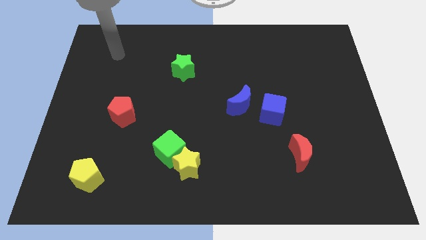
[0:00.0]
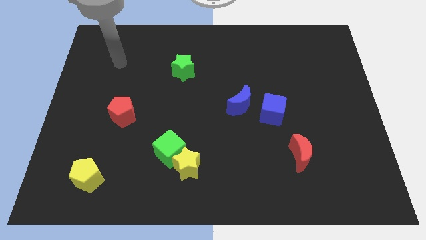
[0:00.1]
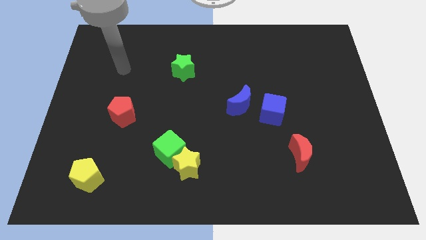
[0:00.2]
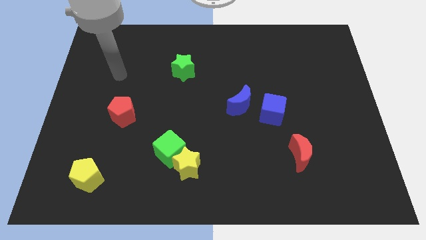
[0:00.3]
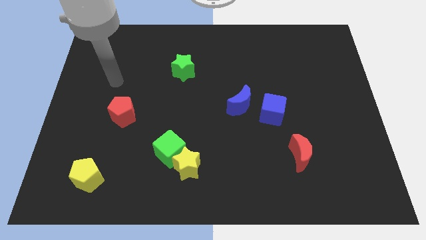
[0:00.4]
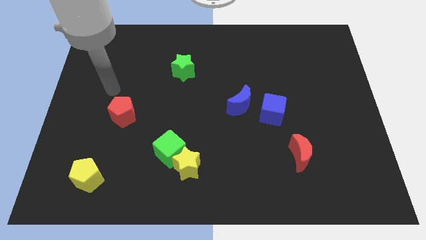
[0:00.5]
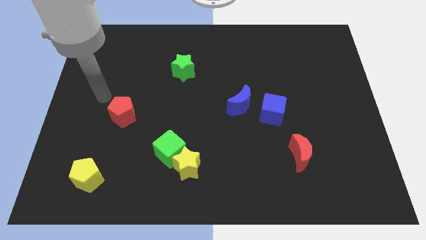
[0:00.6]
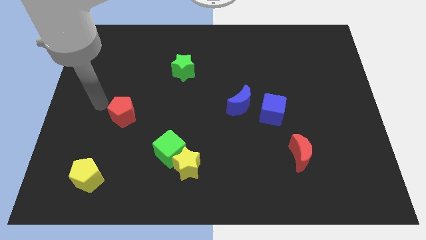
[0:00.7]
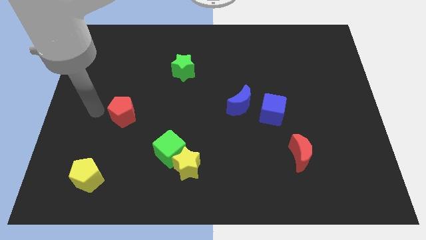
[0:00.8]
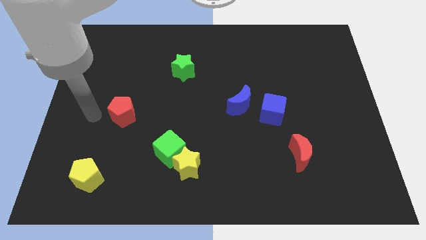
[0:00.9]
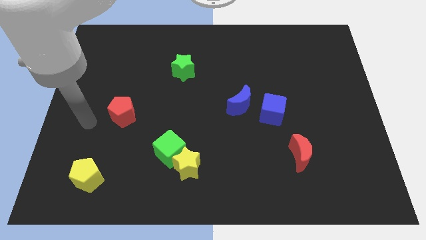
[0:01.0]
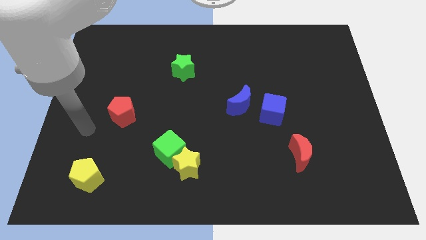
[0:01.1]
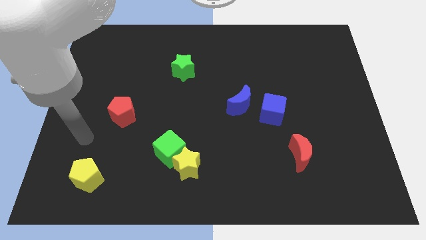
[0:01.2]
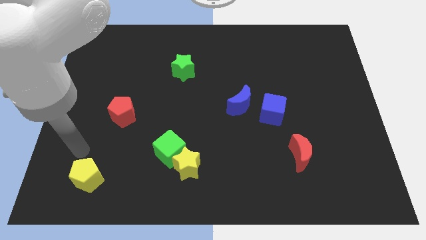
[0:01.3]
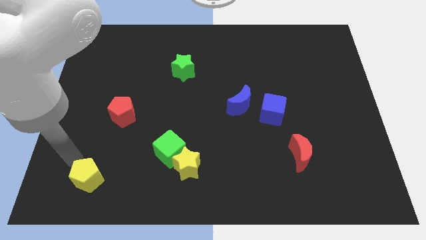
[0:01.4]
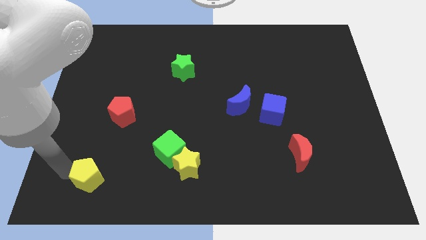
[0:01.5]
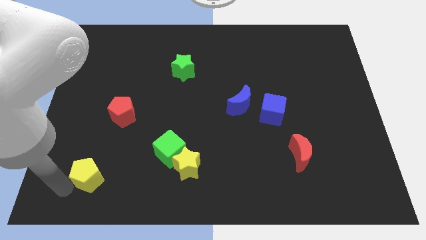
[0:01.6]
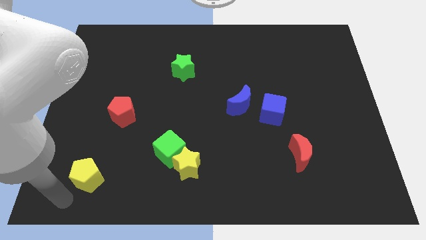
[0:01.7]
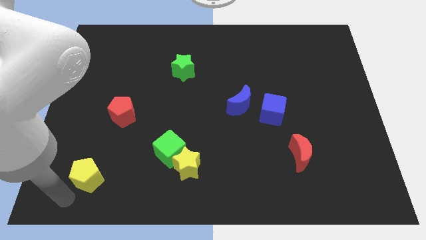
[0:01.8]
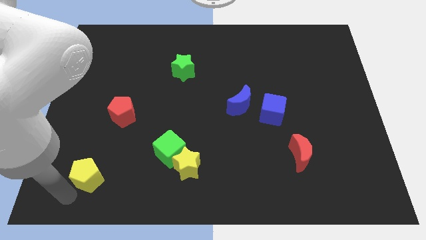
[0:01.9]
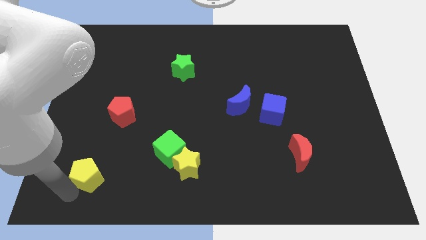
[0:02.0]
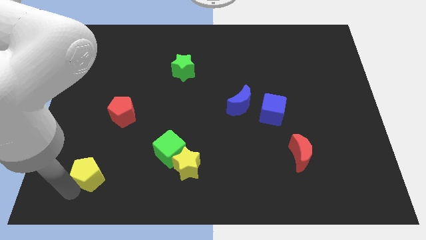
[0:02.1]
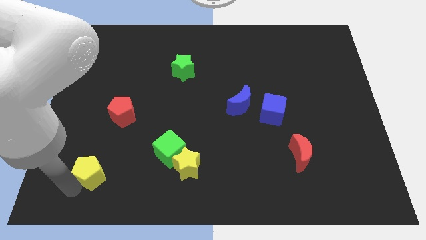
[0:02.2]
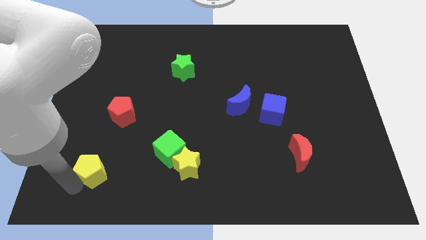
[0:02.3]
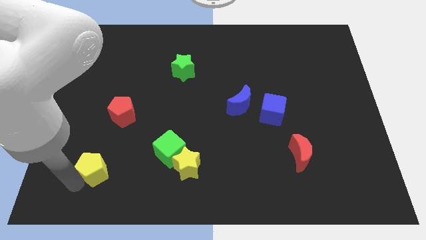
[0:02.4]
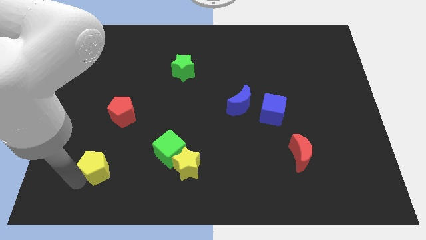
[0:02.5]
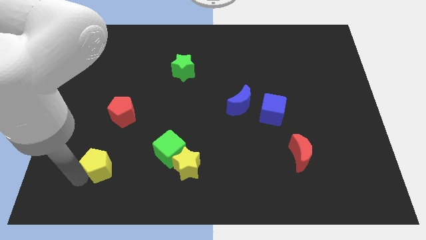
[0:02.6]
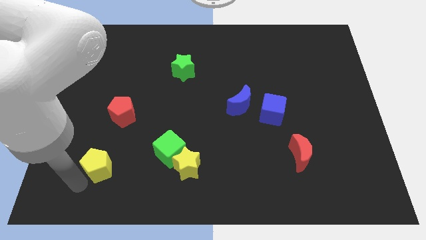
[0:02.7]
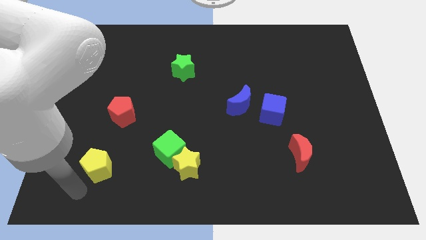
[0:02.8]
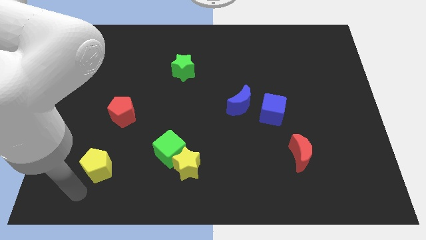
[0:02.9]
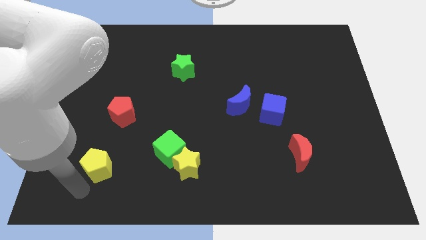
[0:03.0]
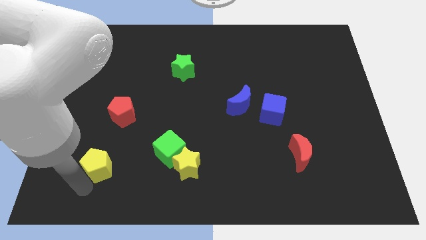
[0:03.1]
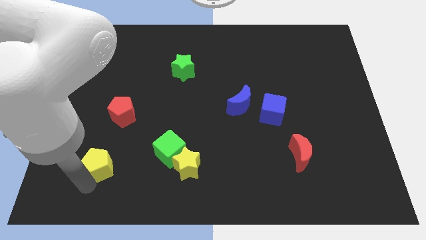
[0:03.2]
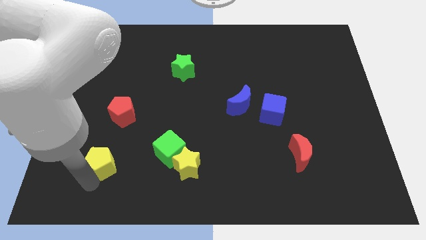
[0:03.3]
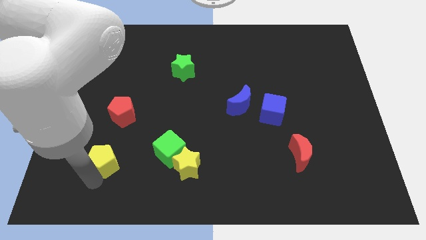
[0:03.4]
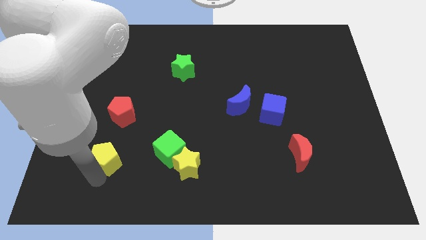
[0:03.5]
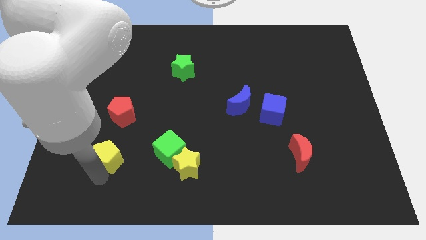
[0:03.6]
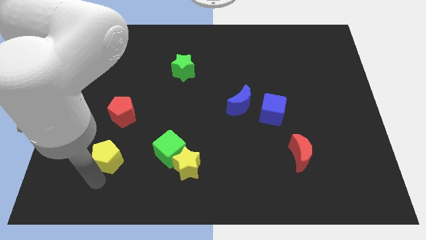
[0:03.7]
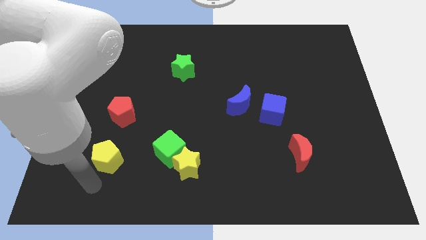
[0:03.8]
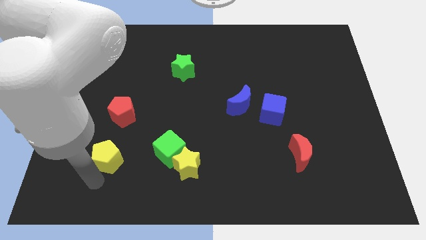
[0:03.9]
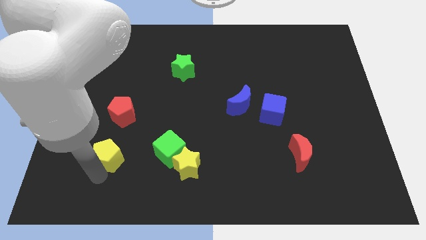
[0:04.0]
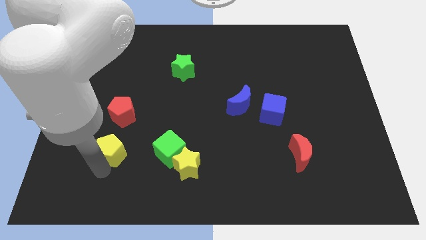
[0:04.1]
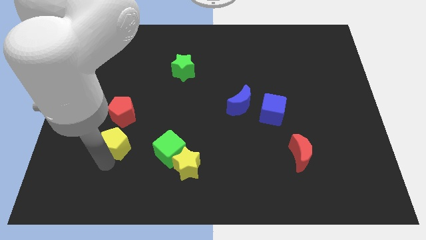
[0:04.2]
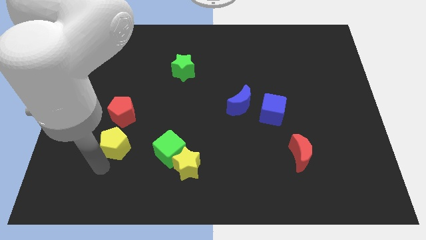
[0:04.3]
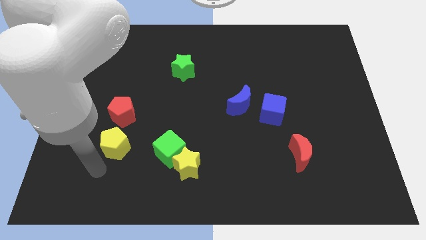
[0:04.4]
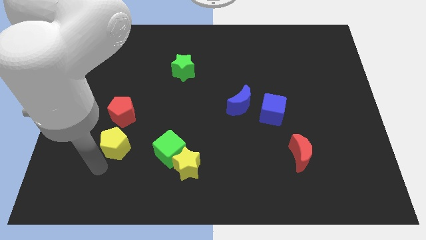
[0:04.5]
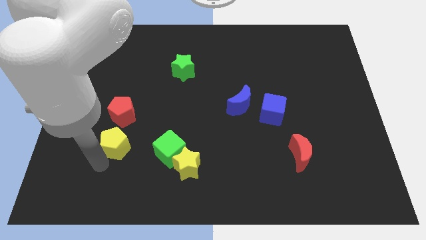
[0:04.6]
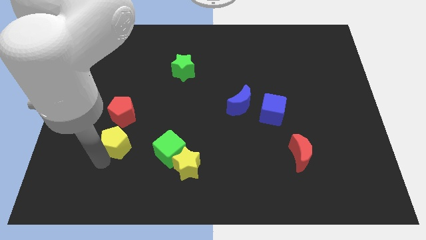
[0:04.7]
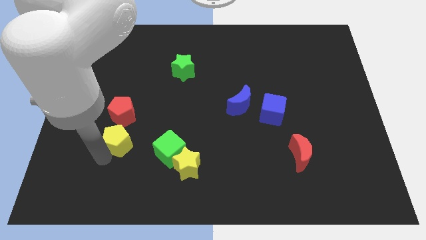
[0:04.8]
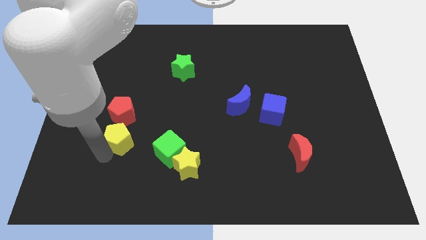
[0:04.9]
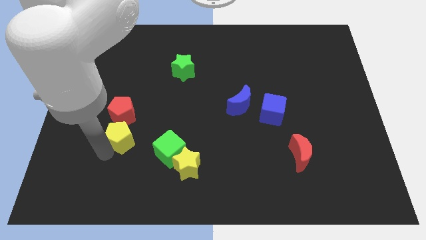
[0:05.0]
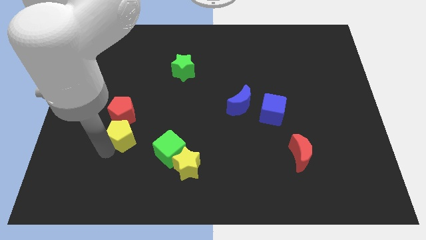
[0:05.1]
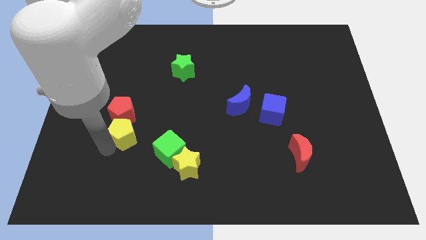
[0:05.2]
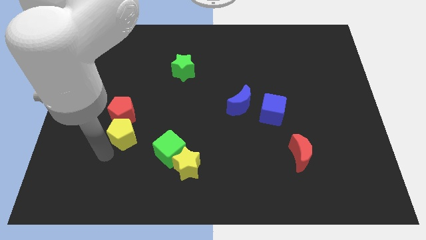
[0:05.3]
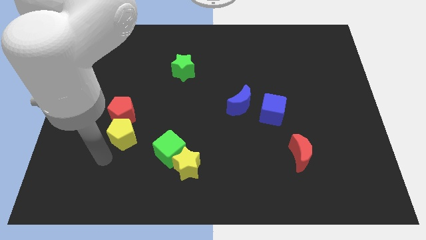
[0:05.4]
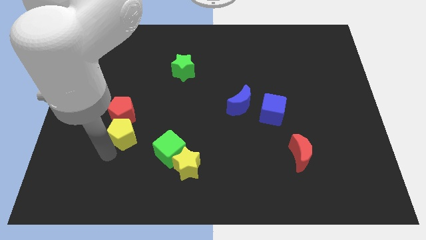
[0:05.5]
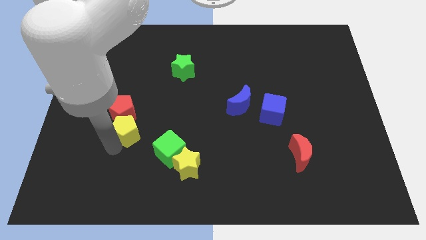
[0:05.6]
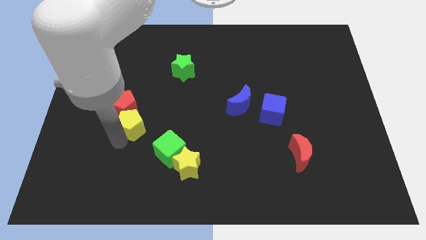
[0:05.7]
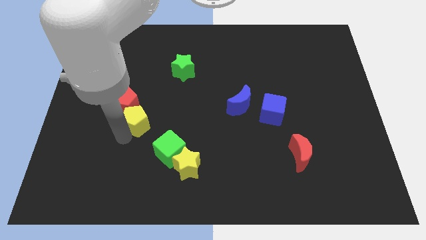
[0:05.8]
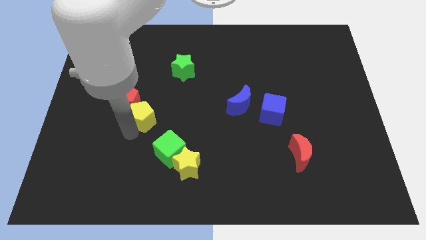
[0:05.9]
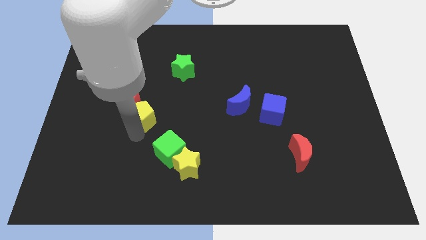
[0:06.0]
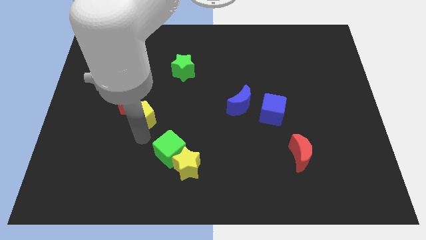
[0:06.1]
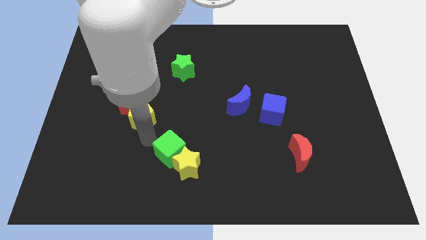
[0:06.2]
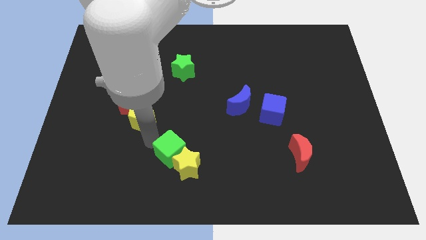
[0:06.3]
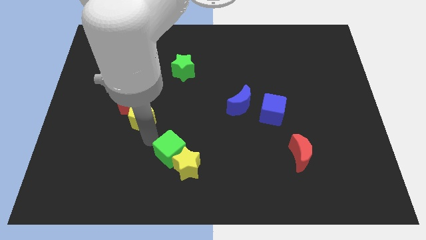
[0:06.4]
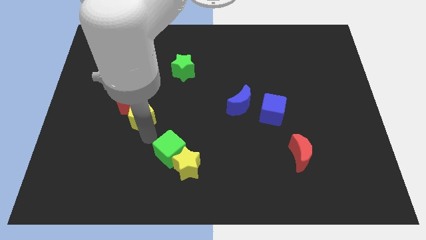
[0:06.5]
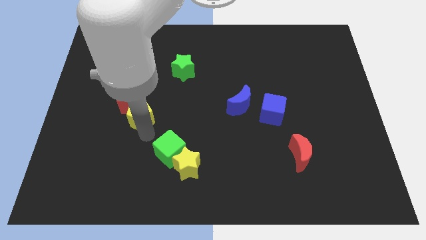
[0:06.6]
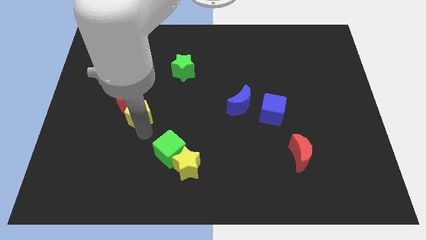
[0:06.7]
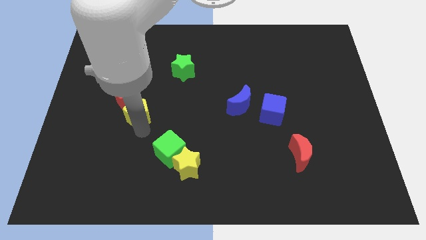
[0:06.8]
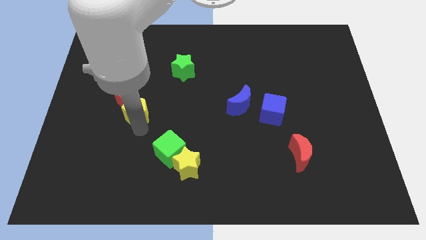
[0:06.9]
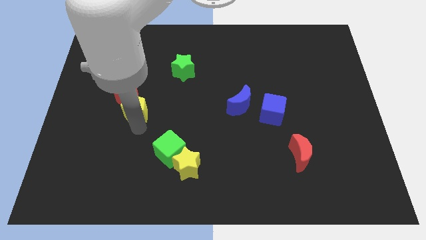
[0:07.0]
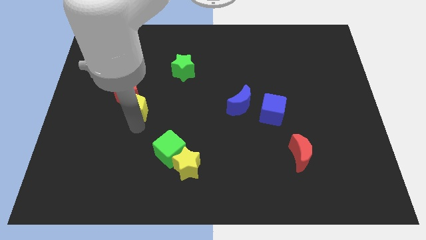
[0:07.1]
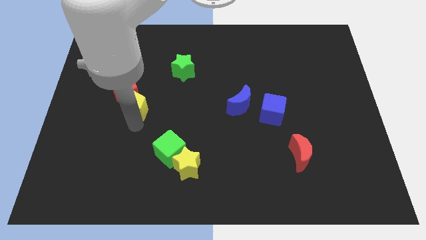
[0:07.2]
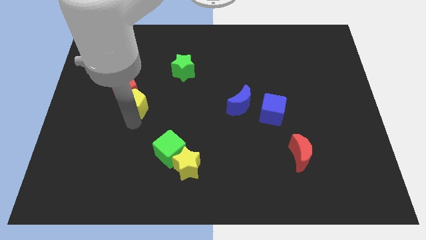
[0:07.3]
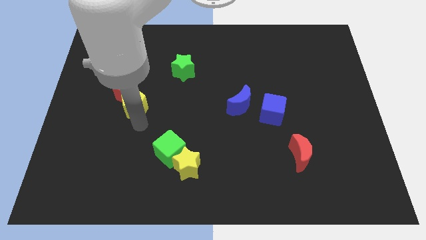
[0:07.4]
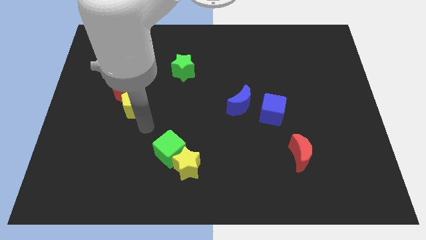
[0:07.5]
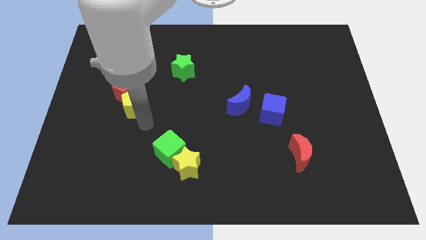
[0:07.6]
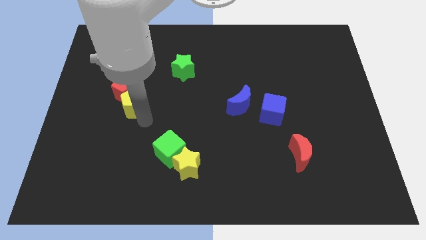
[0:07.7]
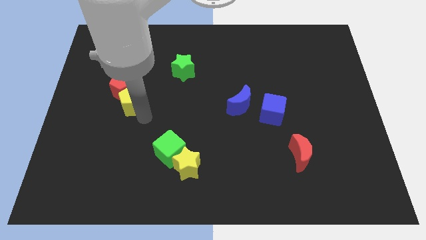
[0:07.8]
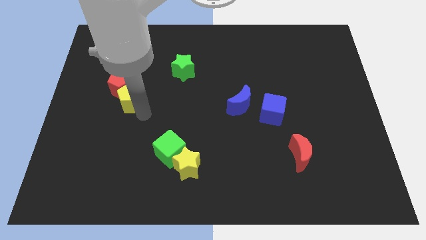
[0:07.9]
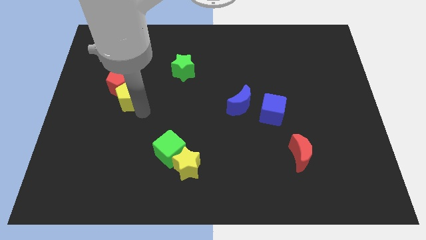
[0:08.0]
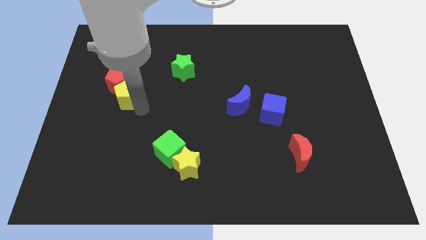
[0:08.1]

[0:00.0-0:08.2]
move the yellow pentagon up
